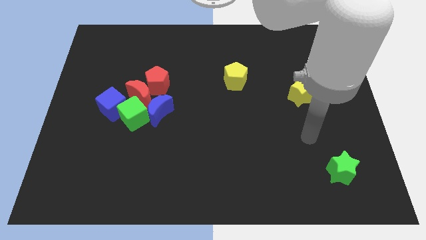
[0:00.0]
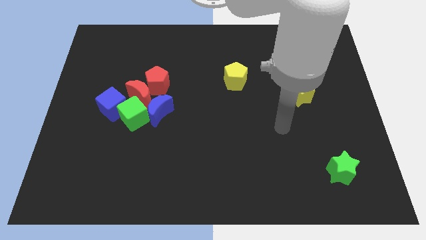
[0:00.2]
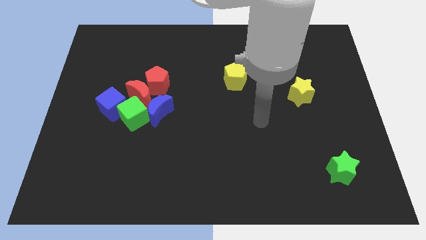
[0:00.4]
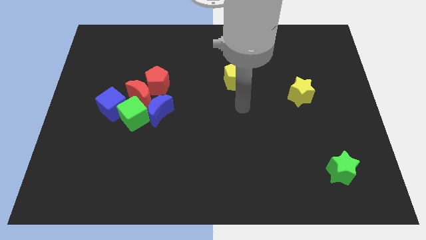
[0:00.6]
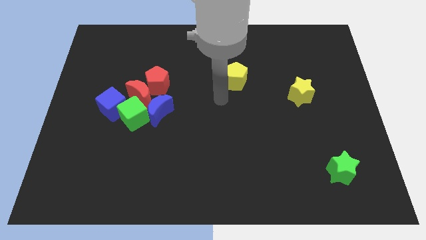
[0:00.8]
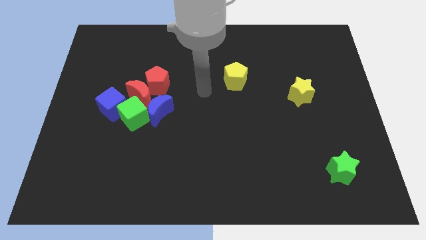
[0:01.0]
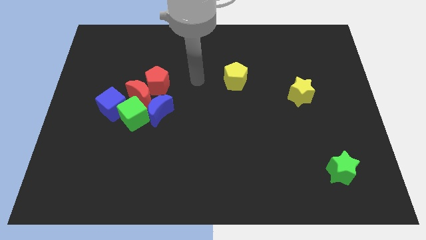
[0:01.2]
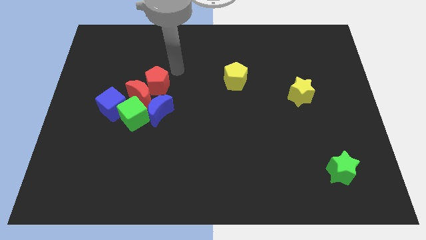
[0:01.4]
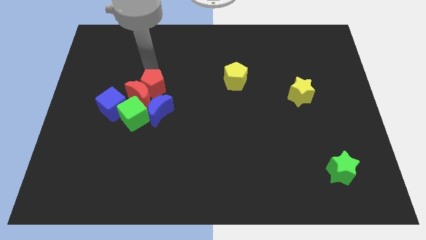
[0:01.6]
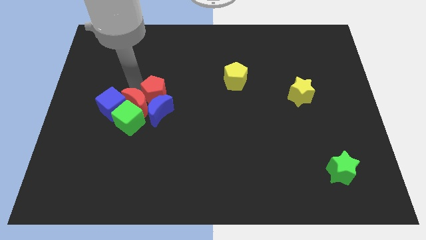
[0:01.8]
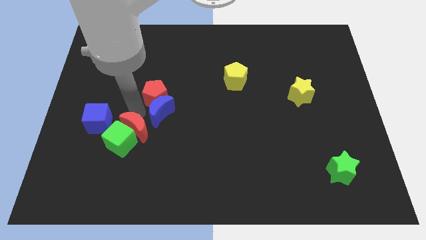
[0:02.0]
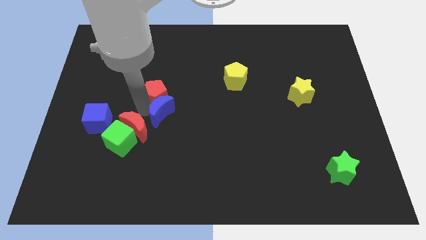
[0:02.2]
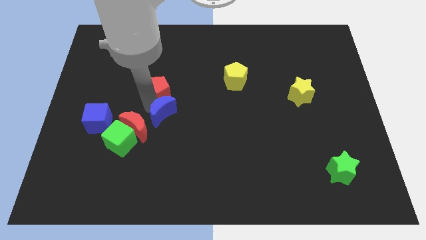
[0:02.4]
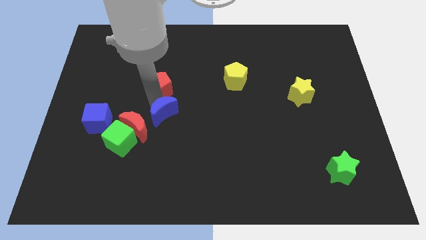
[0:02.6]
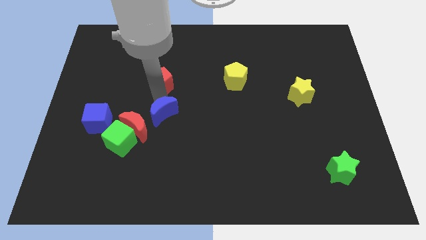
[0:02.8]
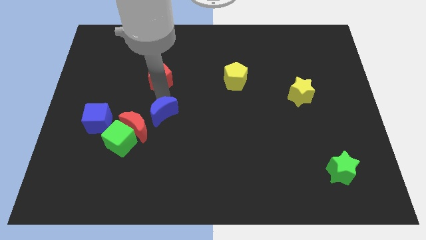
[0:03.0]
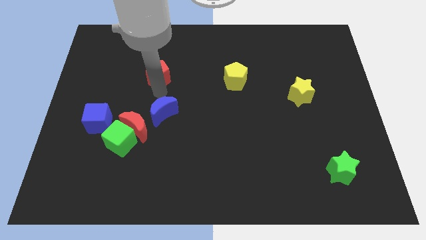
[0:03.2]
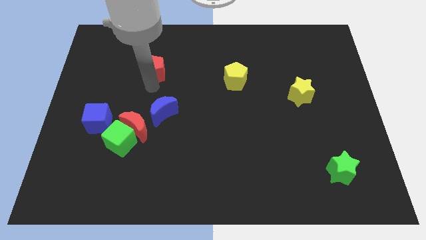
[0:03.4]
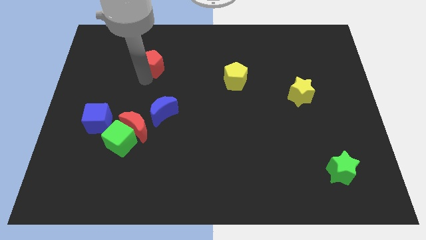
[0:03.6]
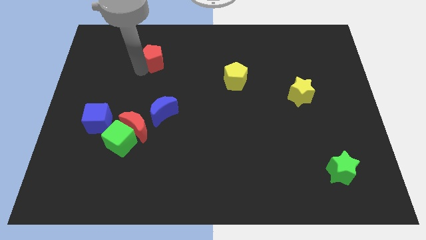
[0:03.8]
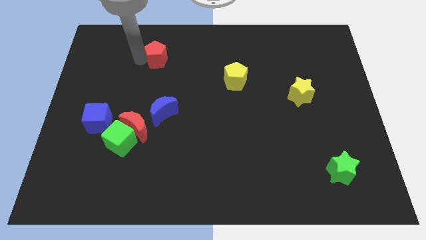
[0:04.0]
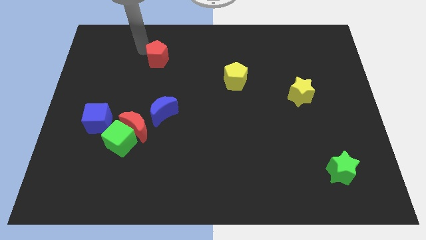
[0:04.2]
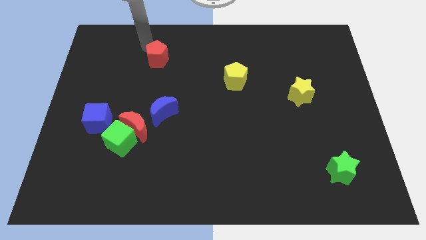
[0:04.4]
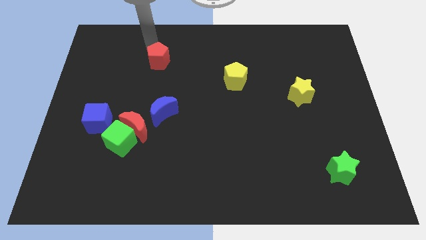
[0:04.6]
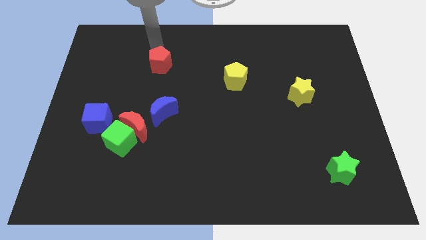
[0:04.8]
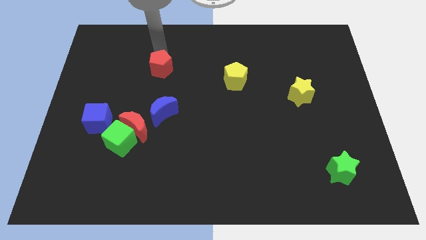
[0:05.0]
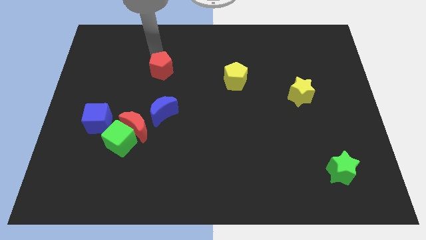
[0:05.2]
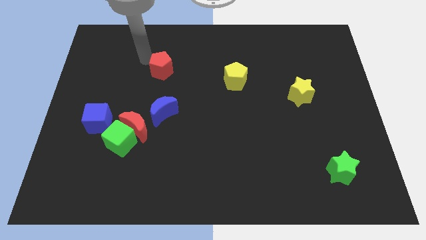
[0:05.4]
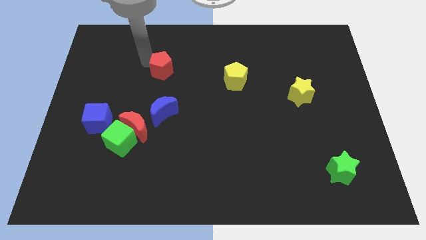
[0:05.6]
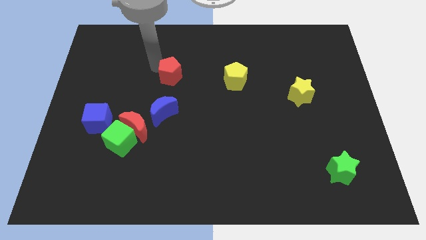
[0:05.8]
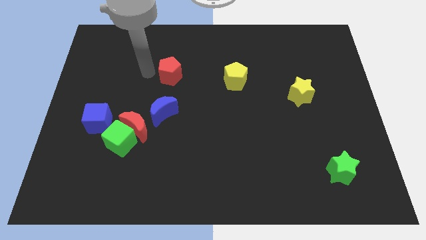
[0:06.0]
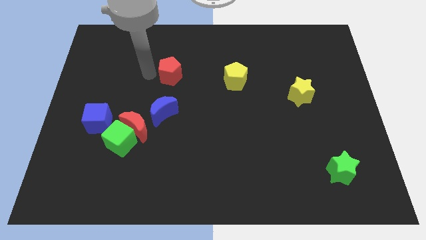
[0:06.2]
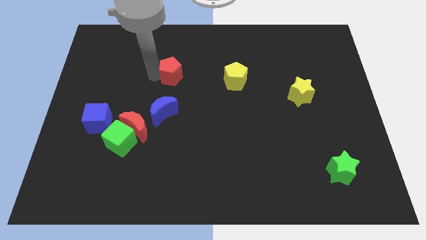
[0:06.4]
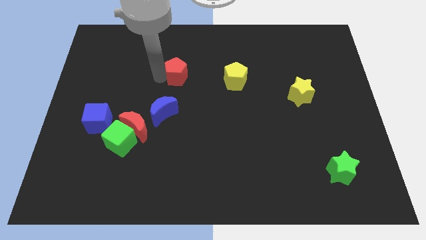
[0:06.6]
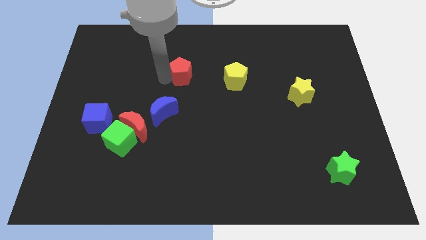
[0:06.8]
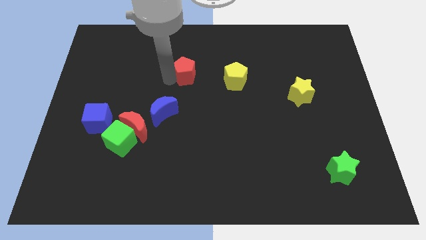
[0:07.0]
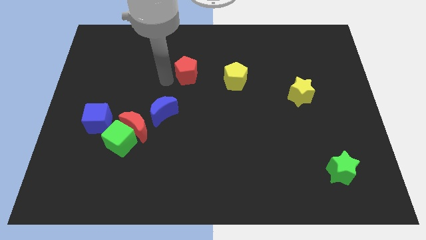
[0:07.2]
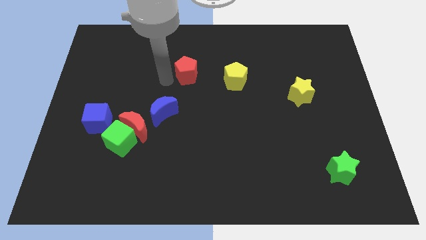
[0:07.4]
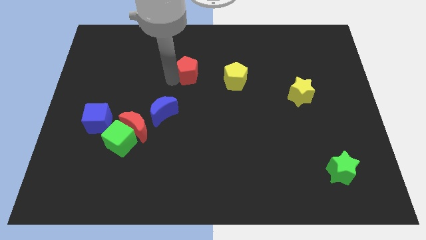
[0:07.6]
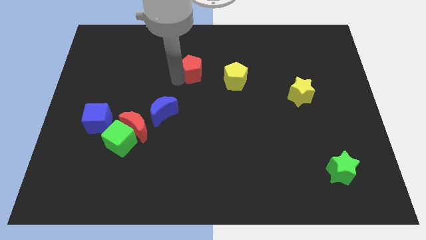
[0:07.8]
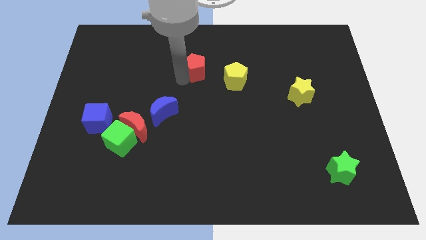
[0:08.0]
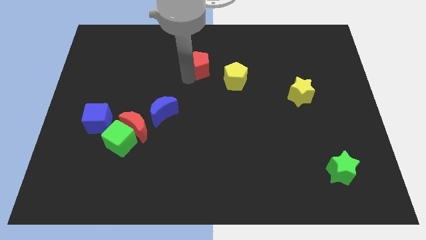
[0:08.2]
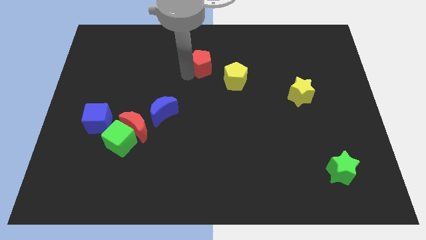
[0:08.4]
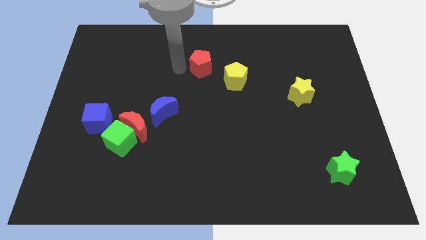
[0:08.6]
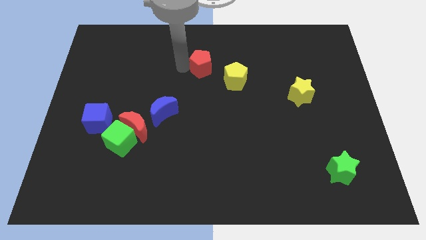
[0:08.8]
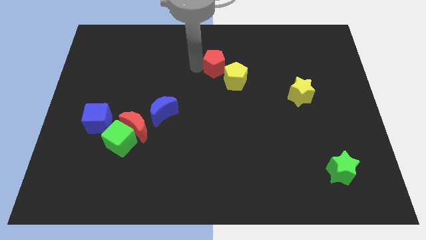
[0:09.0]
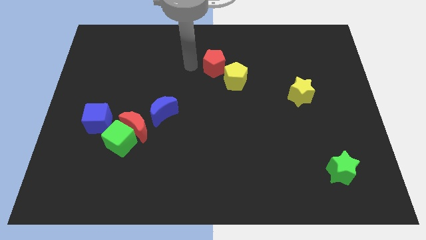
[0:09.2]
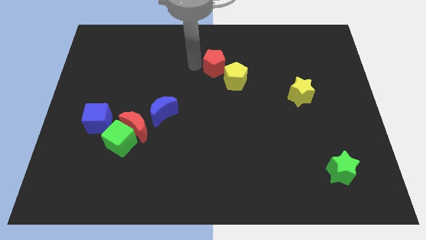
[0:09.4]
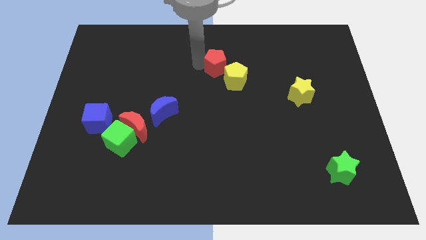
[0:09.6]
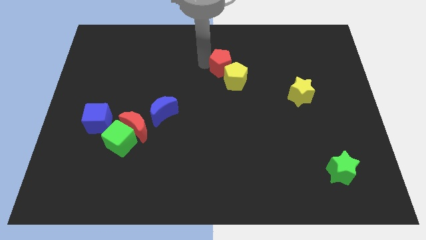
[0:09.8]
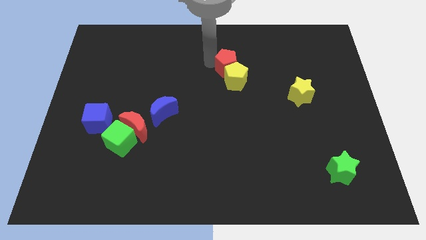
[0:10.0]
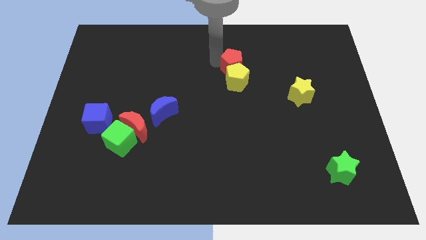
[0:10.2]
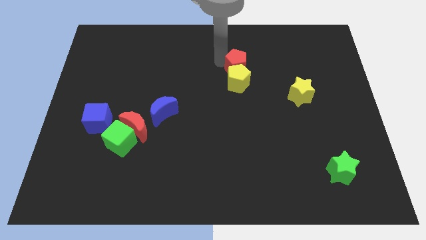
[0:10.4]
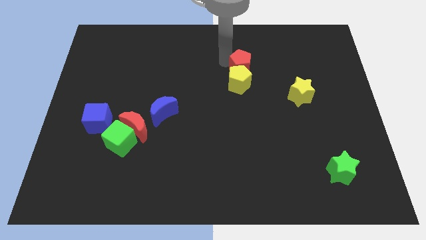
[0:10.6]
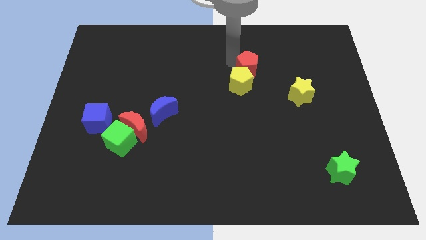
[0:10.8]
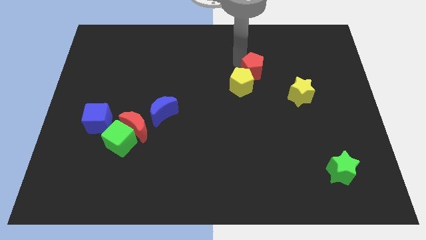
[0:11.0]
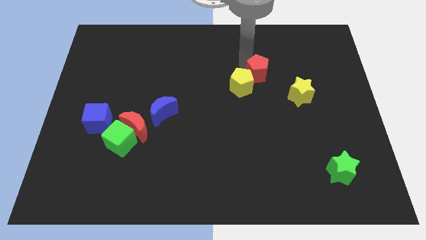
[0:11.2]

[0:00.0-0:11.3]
push the red pentagon diagonally up and to the left of the yellow star

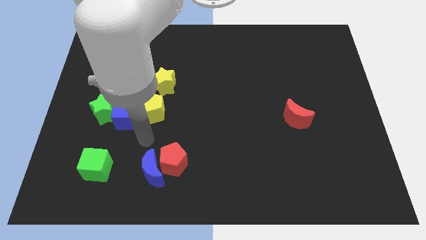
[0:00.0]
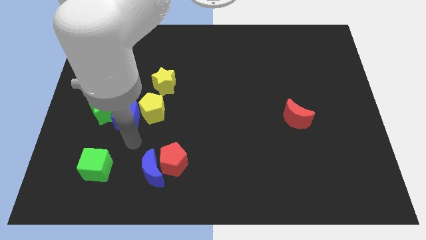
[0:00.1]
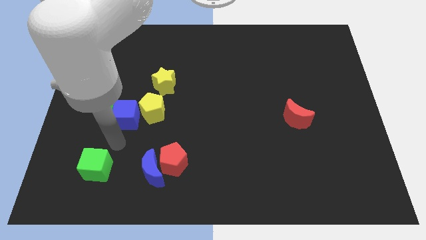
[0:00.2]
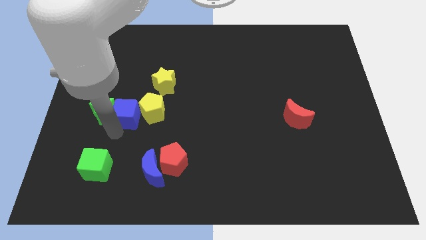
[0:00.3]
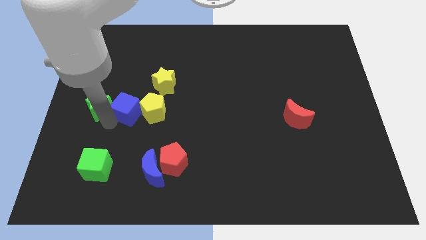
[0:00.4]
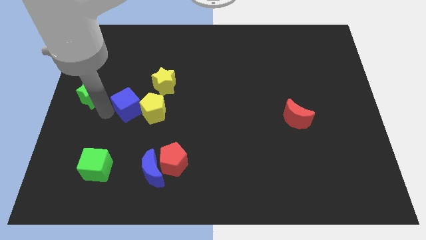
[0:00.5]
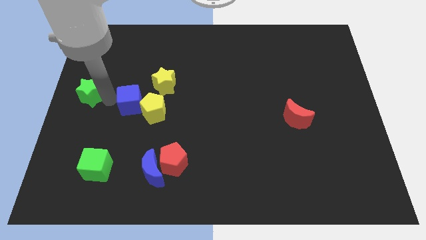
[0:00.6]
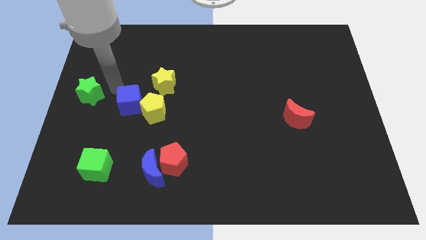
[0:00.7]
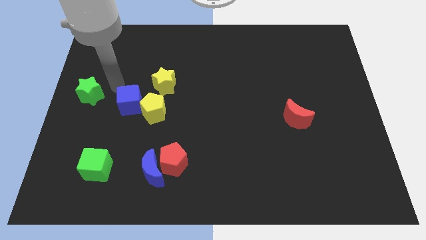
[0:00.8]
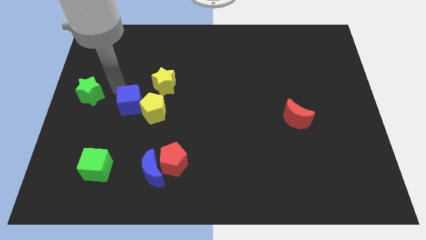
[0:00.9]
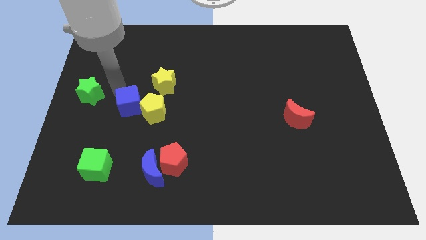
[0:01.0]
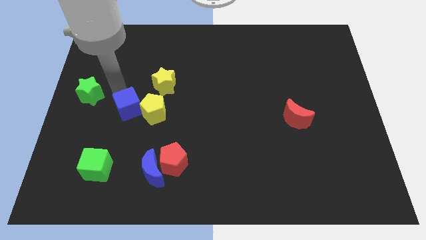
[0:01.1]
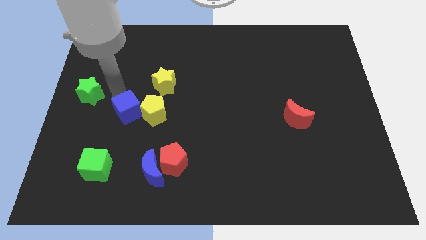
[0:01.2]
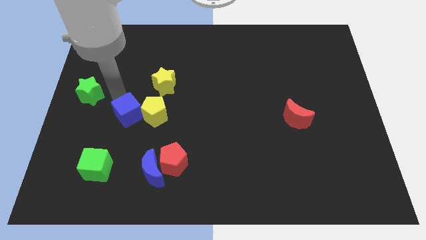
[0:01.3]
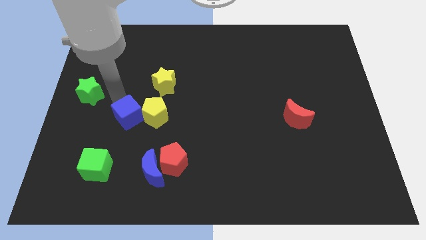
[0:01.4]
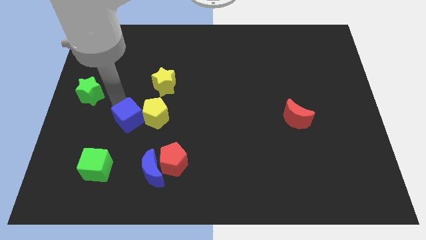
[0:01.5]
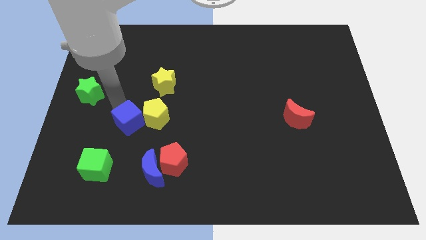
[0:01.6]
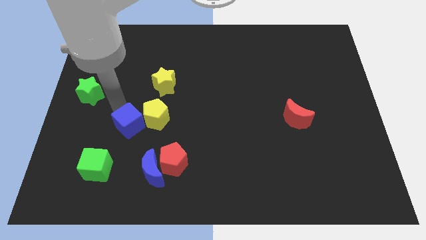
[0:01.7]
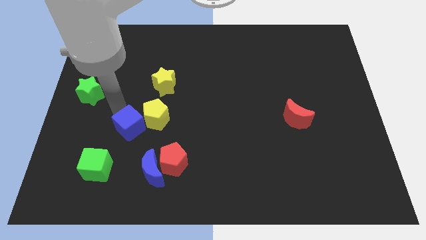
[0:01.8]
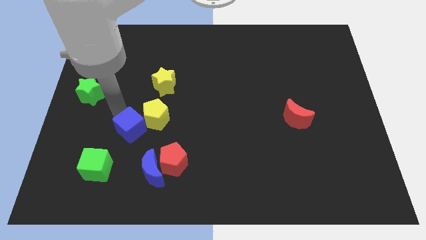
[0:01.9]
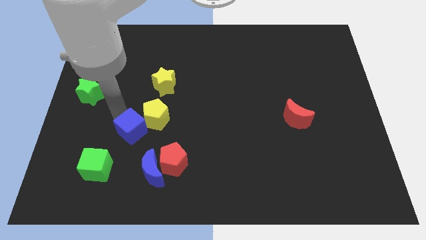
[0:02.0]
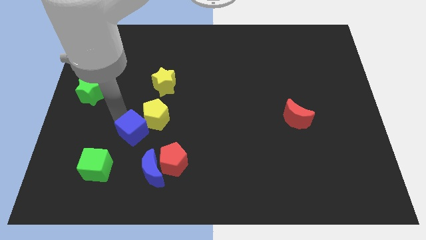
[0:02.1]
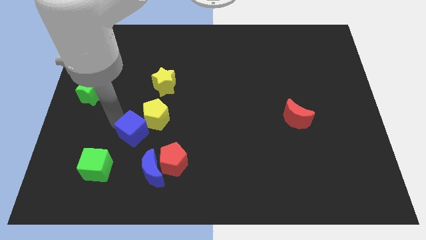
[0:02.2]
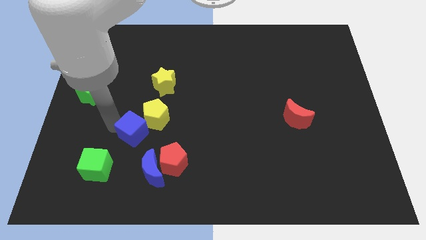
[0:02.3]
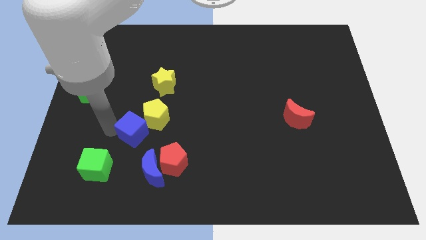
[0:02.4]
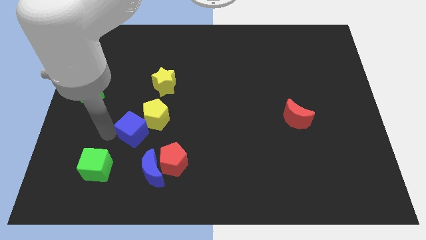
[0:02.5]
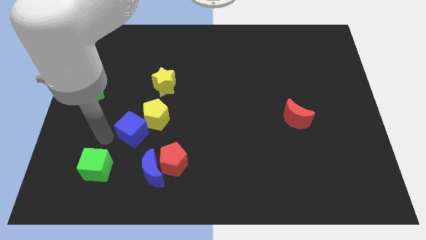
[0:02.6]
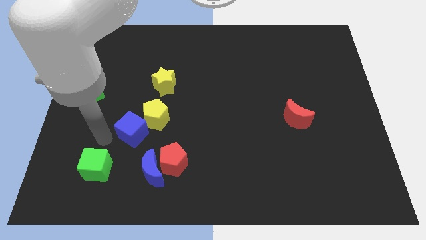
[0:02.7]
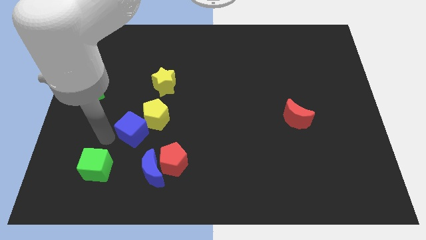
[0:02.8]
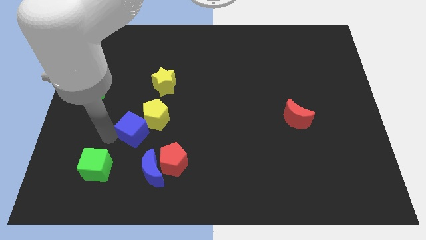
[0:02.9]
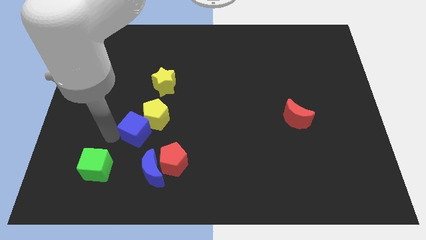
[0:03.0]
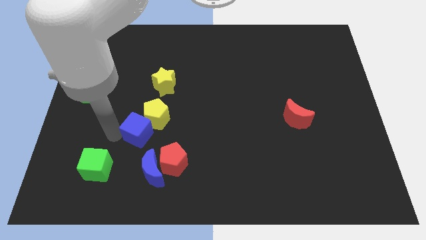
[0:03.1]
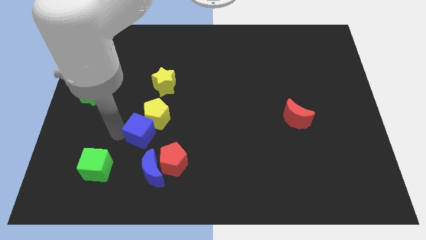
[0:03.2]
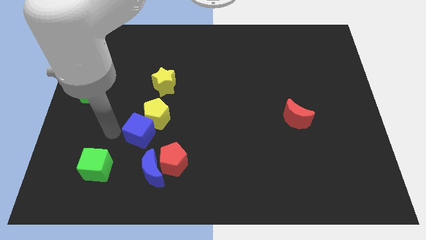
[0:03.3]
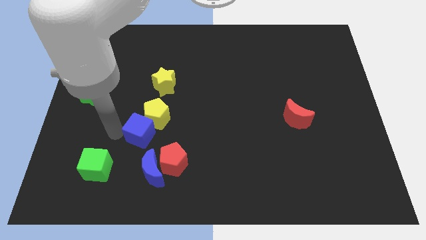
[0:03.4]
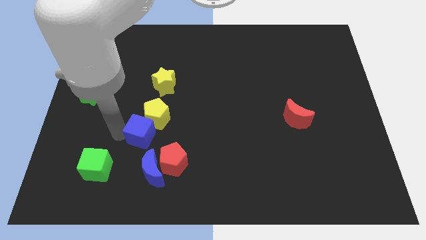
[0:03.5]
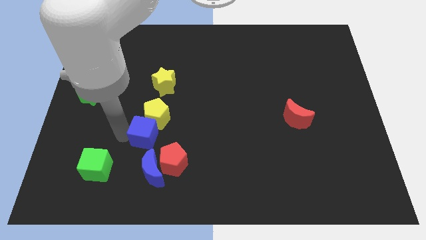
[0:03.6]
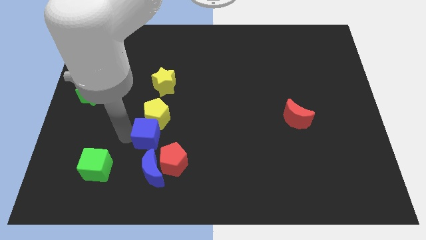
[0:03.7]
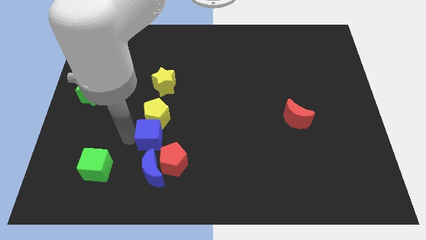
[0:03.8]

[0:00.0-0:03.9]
move the blue cube to the bottom right side of the yellow pentagon
